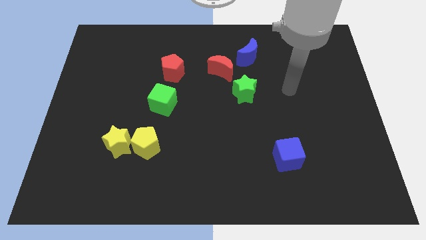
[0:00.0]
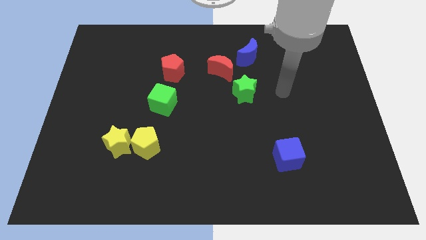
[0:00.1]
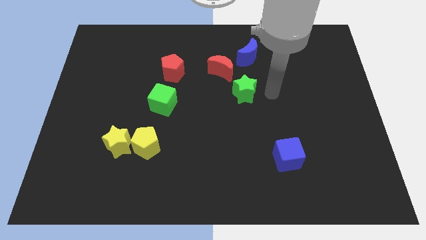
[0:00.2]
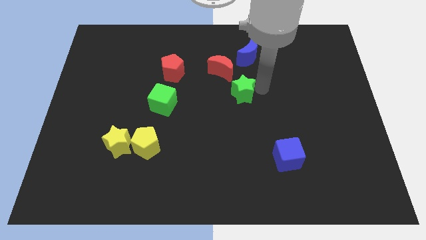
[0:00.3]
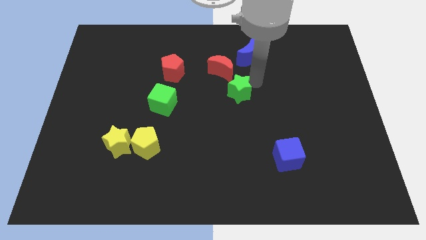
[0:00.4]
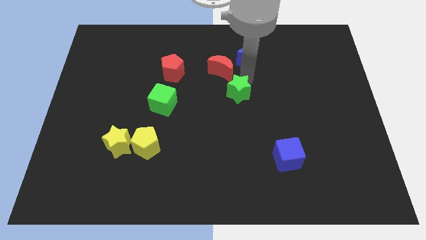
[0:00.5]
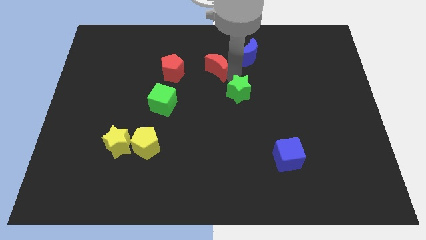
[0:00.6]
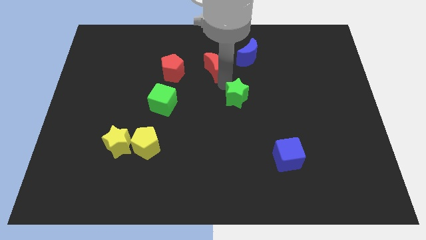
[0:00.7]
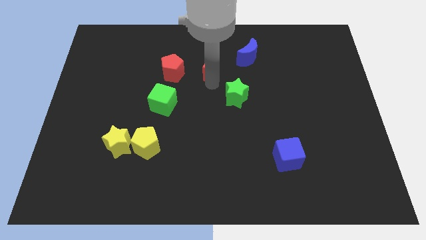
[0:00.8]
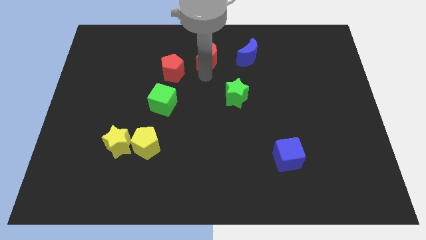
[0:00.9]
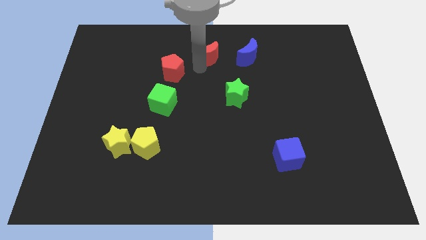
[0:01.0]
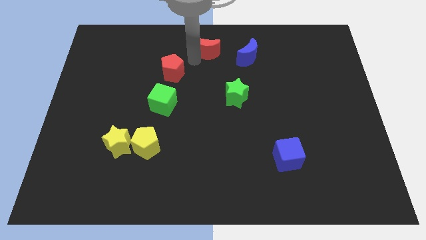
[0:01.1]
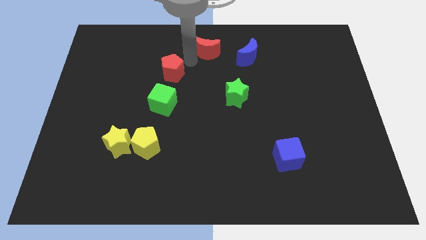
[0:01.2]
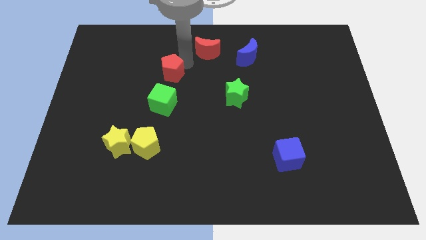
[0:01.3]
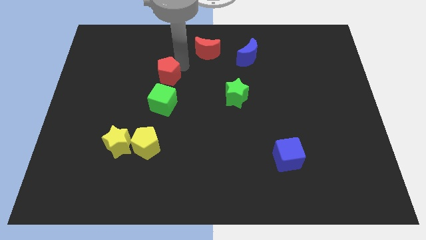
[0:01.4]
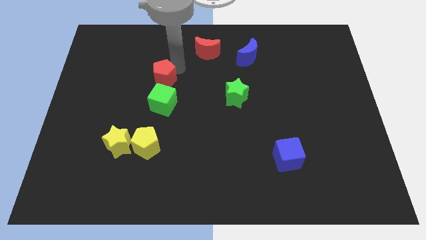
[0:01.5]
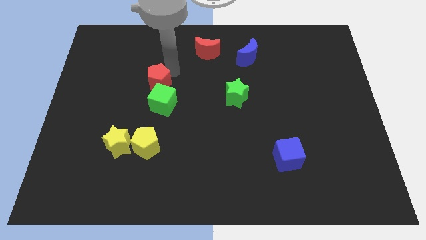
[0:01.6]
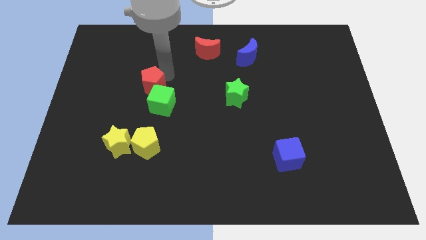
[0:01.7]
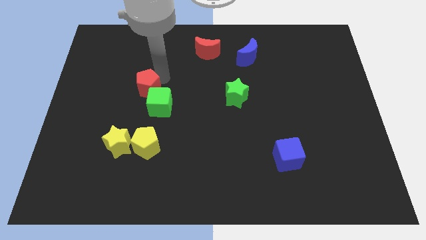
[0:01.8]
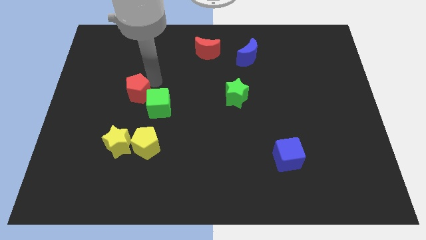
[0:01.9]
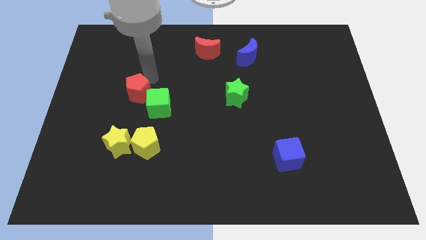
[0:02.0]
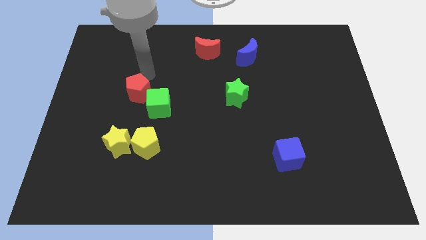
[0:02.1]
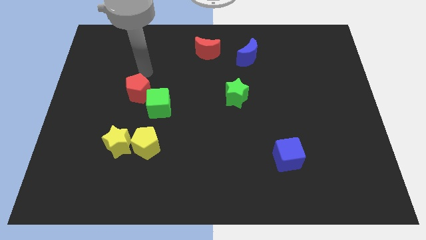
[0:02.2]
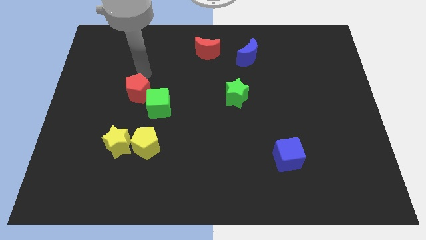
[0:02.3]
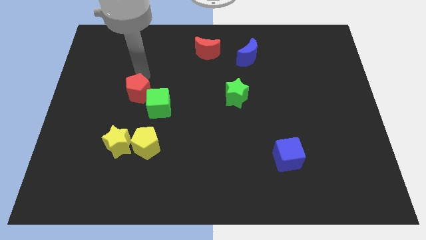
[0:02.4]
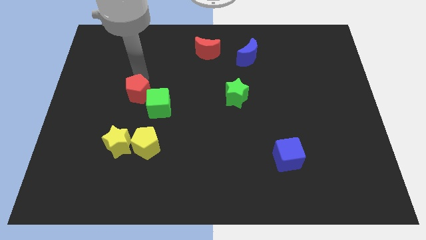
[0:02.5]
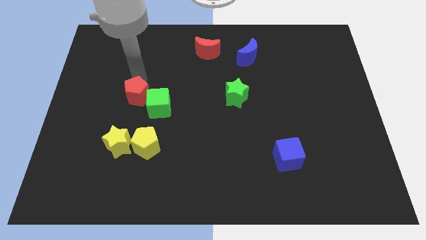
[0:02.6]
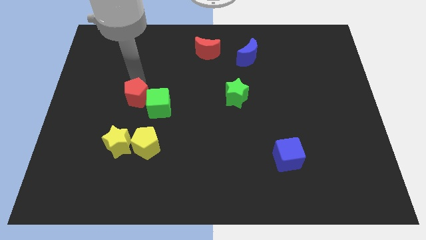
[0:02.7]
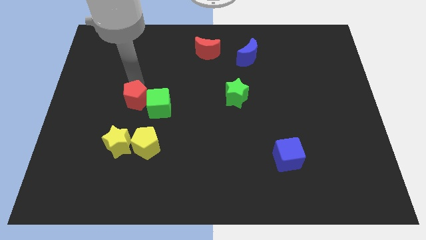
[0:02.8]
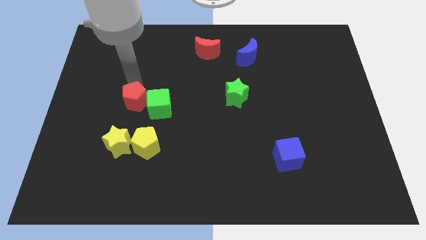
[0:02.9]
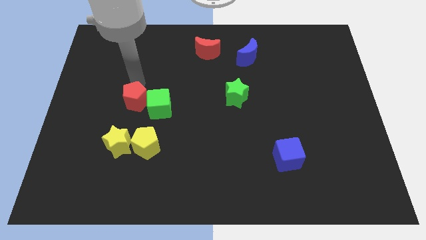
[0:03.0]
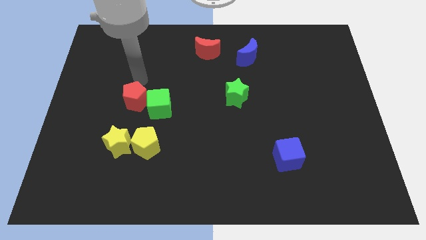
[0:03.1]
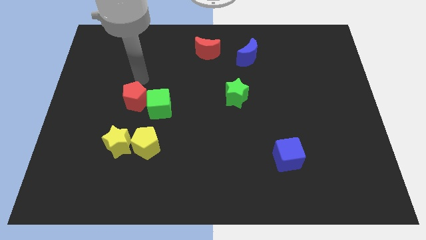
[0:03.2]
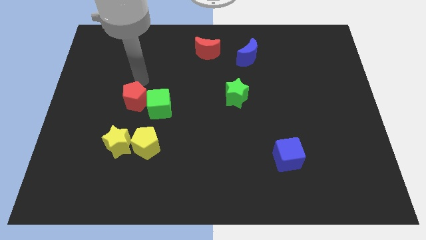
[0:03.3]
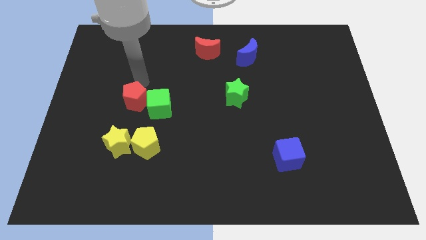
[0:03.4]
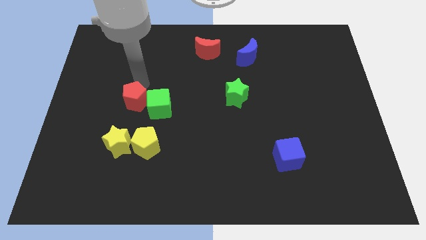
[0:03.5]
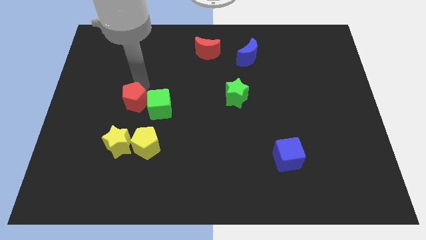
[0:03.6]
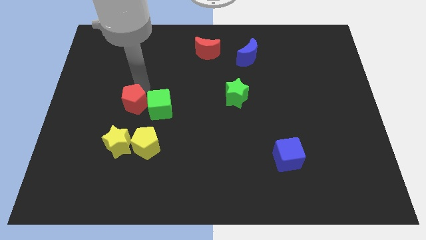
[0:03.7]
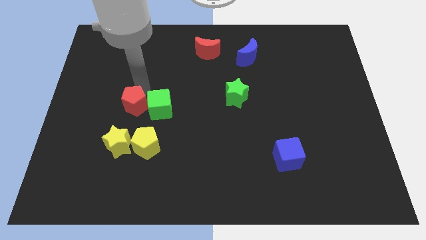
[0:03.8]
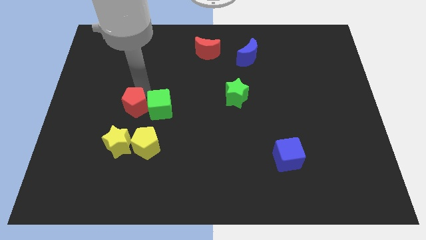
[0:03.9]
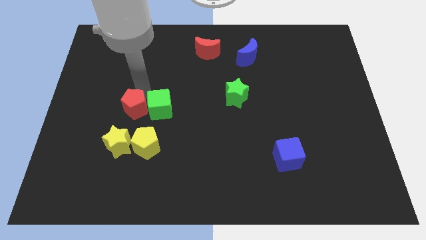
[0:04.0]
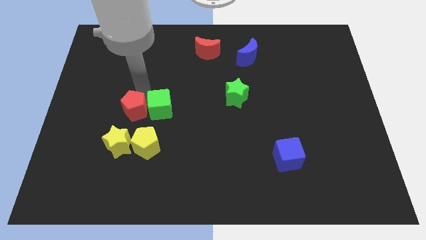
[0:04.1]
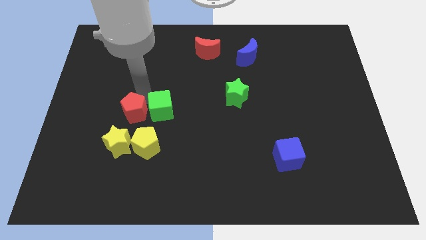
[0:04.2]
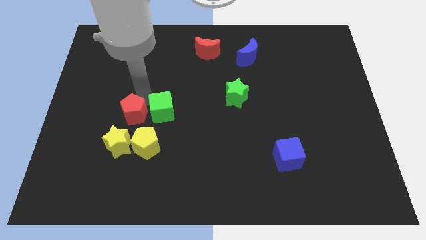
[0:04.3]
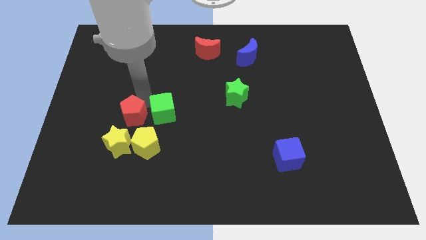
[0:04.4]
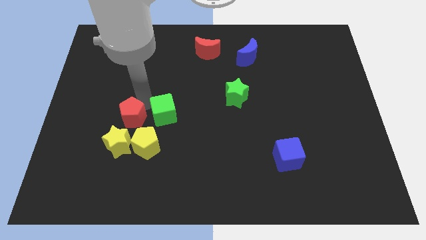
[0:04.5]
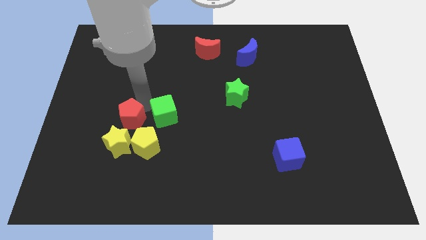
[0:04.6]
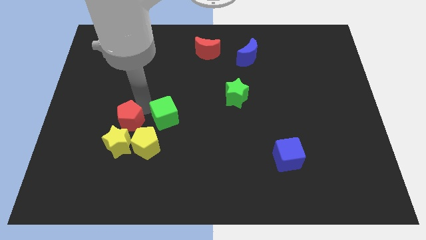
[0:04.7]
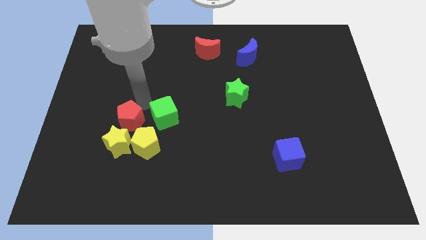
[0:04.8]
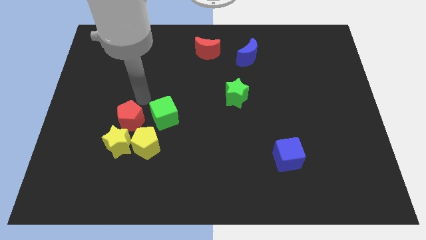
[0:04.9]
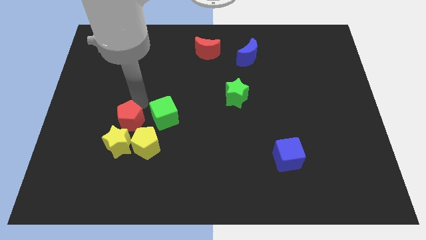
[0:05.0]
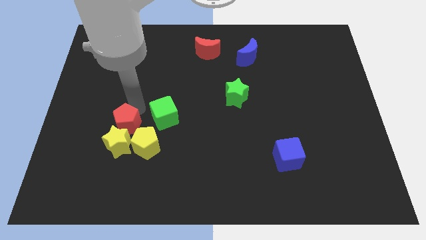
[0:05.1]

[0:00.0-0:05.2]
put the red pentagon towards the yellow star

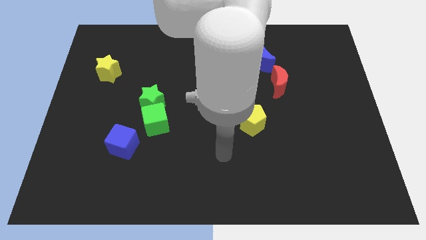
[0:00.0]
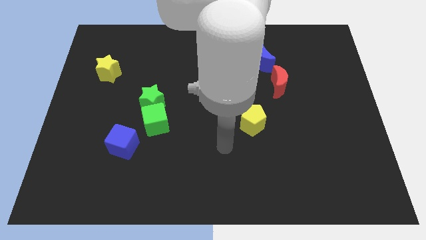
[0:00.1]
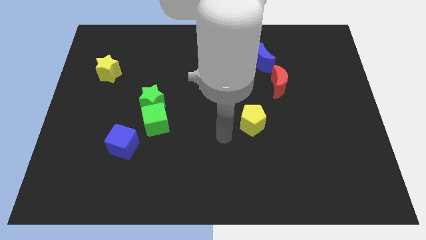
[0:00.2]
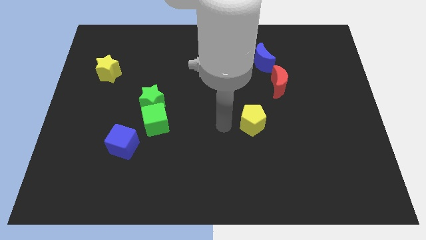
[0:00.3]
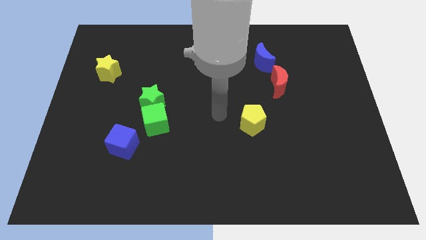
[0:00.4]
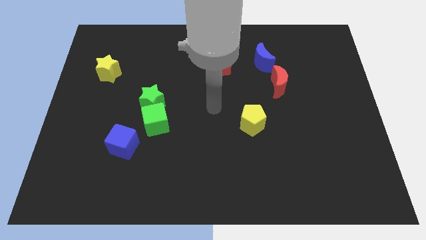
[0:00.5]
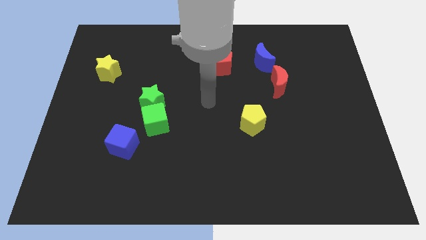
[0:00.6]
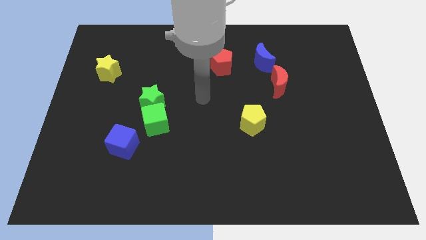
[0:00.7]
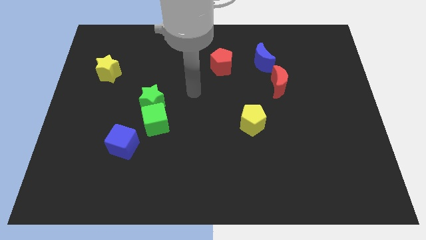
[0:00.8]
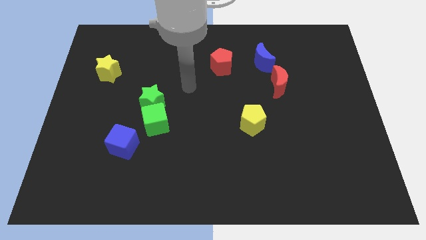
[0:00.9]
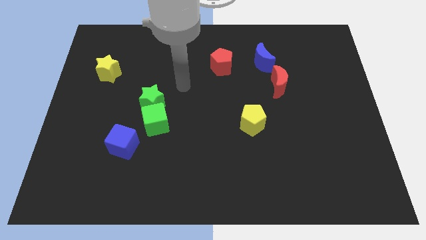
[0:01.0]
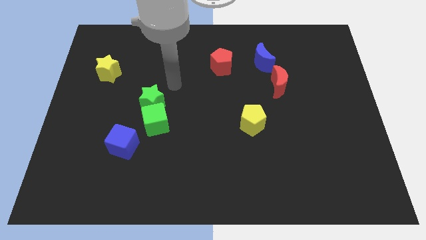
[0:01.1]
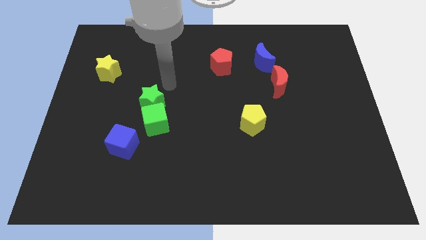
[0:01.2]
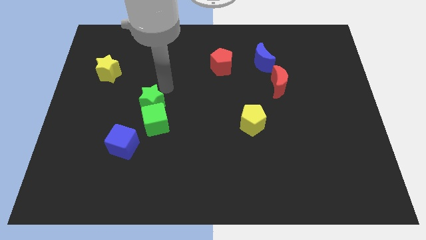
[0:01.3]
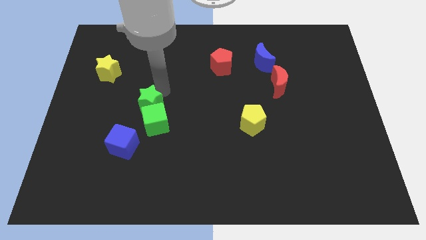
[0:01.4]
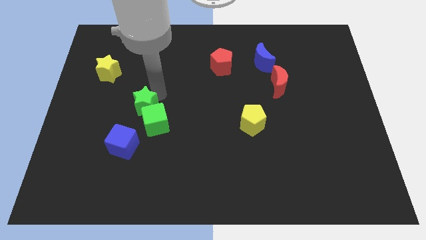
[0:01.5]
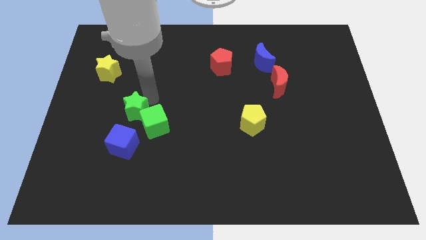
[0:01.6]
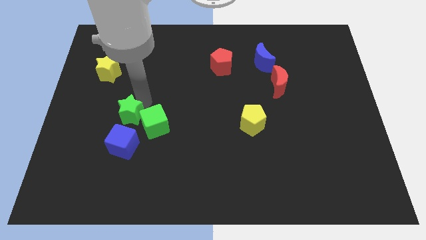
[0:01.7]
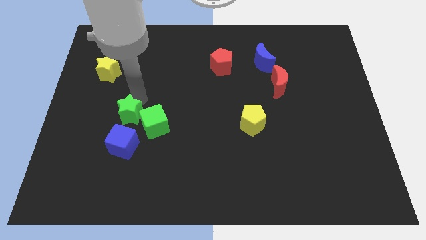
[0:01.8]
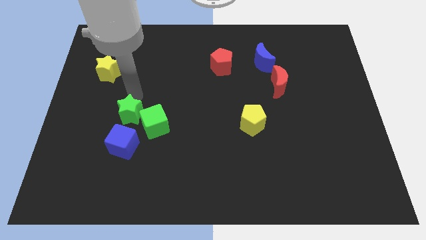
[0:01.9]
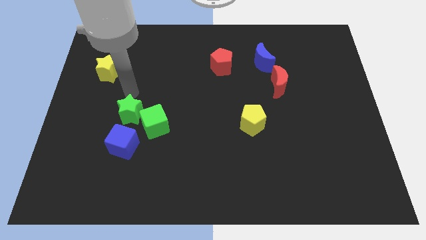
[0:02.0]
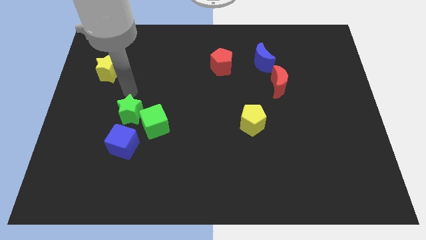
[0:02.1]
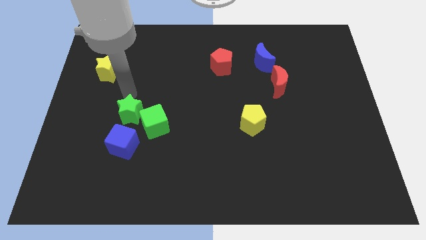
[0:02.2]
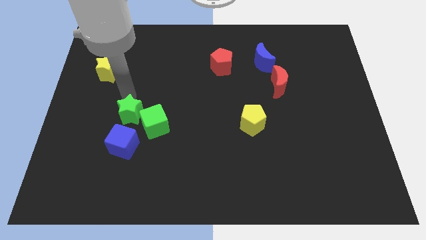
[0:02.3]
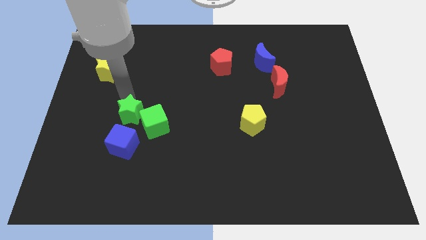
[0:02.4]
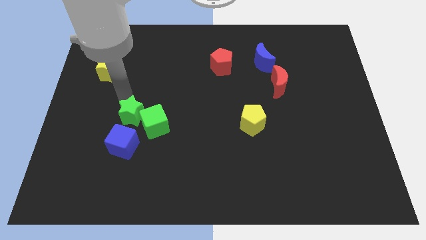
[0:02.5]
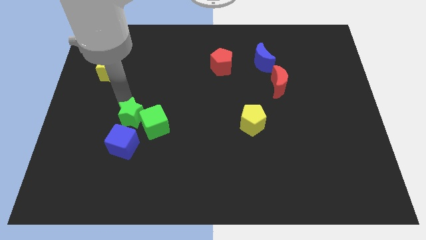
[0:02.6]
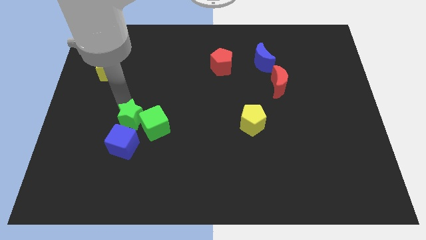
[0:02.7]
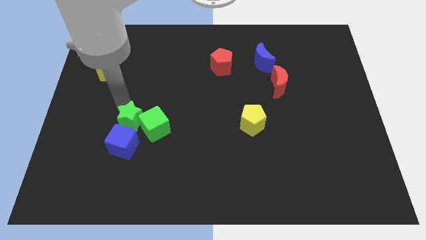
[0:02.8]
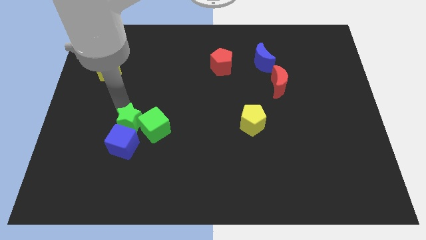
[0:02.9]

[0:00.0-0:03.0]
push the green star close to the blue cube
